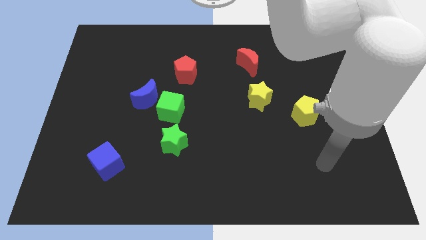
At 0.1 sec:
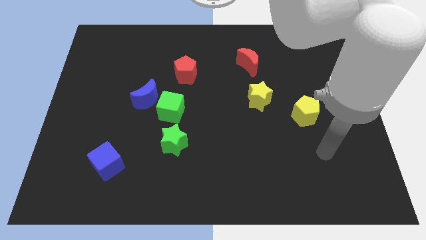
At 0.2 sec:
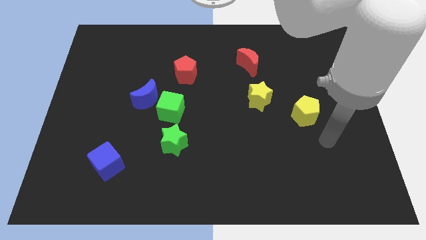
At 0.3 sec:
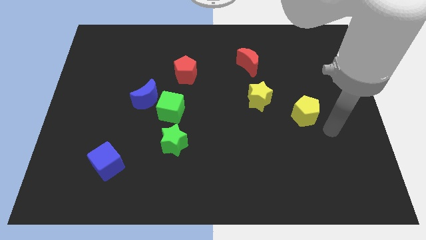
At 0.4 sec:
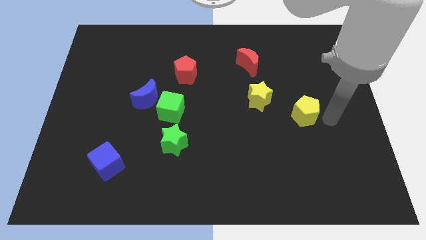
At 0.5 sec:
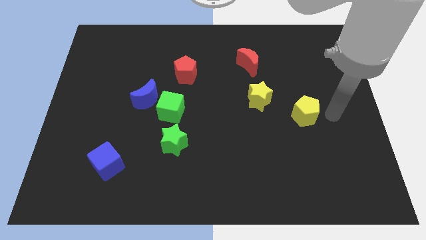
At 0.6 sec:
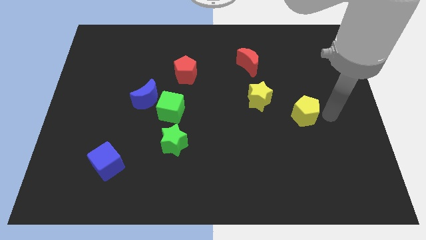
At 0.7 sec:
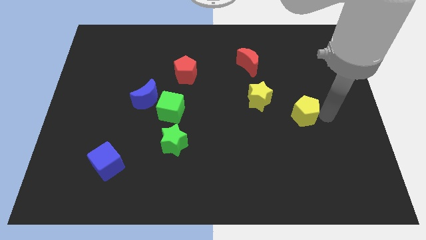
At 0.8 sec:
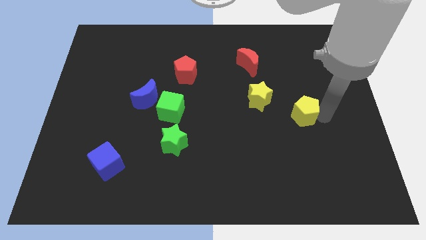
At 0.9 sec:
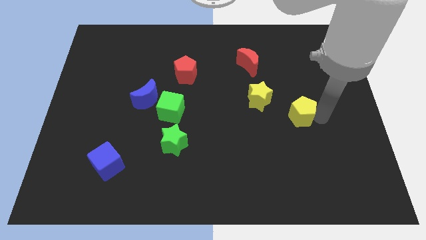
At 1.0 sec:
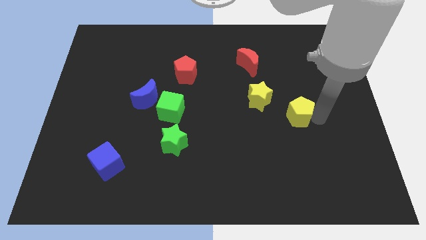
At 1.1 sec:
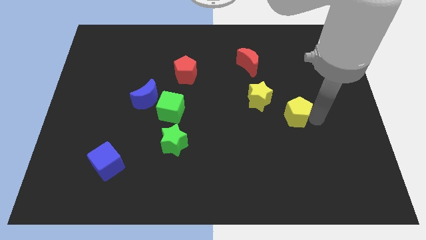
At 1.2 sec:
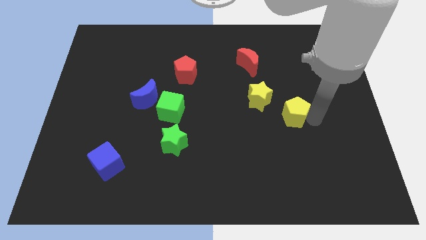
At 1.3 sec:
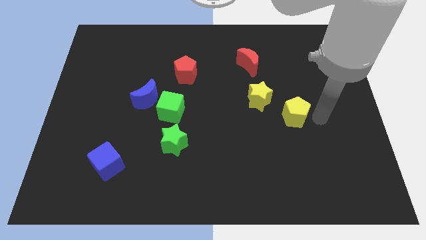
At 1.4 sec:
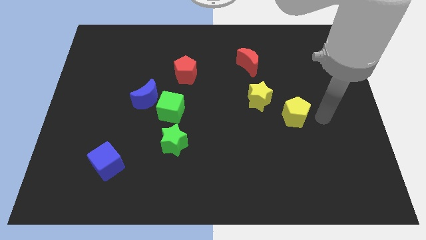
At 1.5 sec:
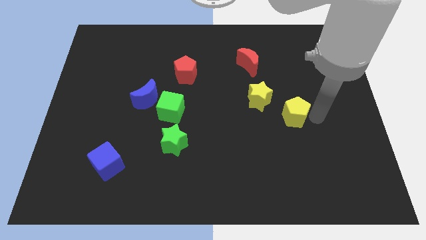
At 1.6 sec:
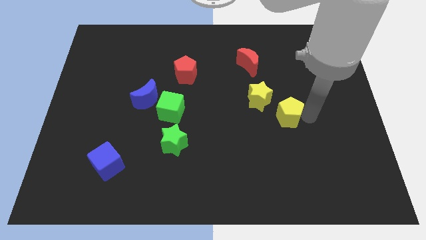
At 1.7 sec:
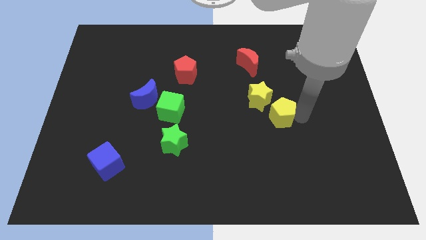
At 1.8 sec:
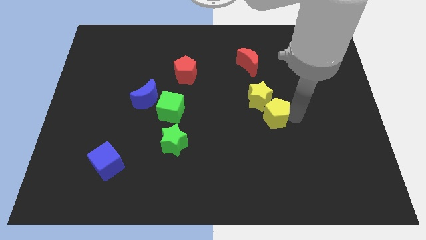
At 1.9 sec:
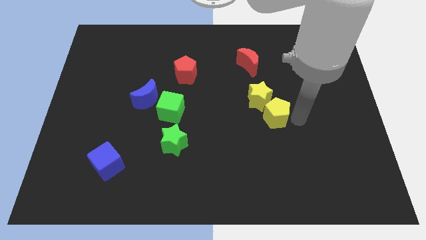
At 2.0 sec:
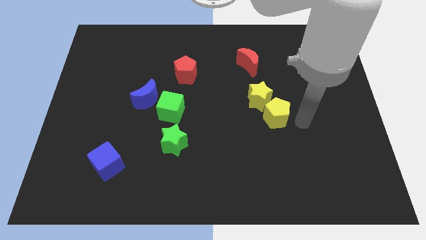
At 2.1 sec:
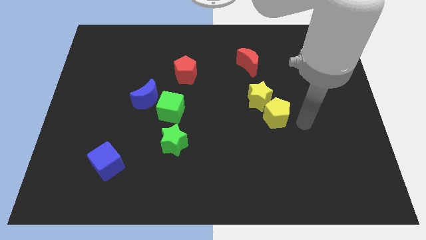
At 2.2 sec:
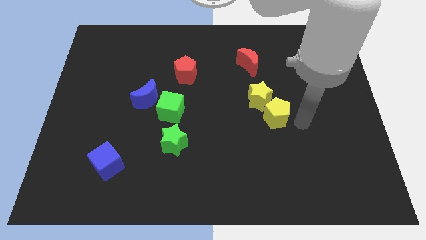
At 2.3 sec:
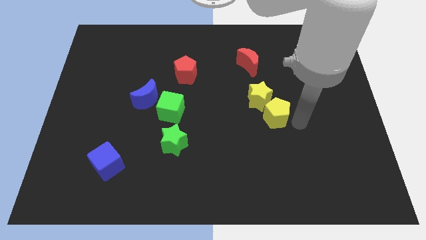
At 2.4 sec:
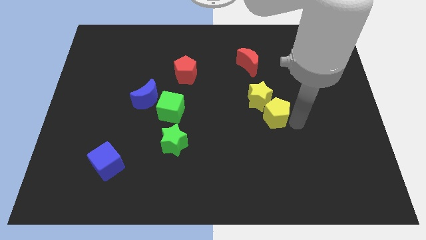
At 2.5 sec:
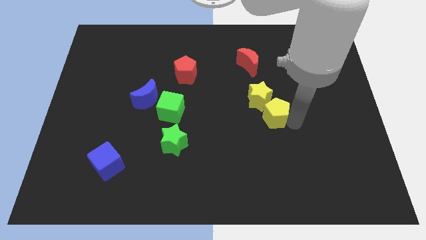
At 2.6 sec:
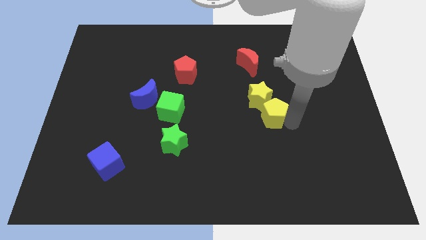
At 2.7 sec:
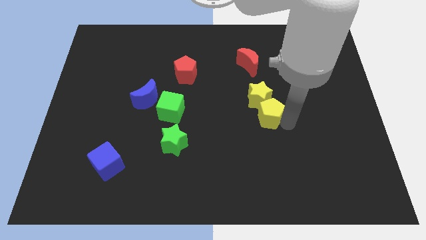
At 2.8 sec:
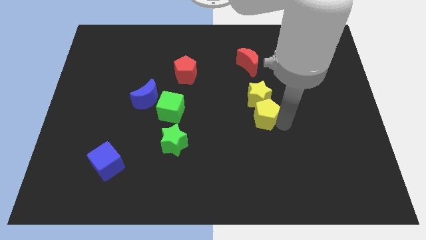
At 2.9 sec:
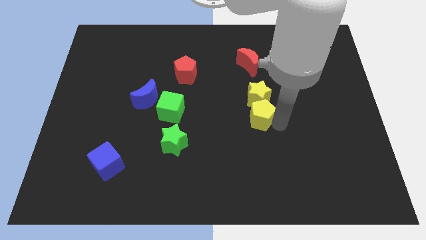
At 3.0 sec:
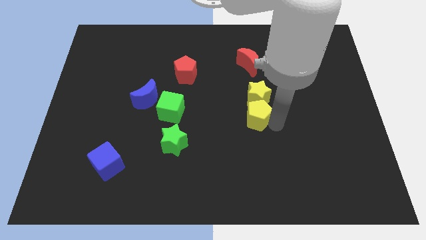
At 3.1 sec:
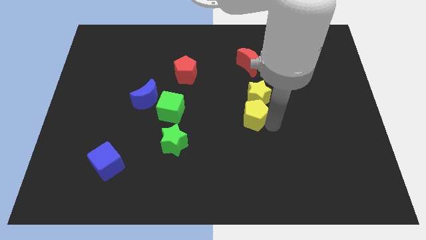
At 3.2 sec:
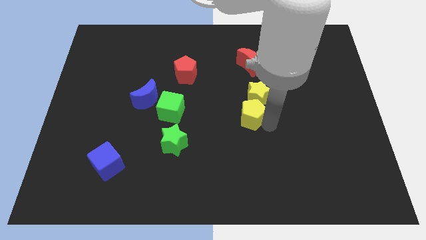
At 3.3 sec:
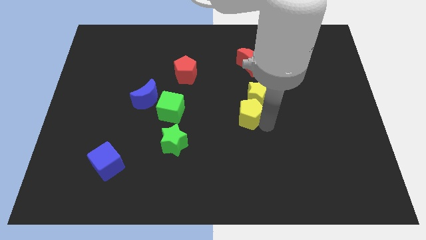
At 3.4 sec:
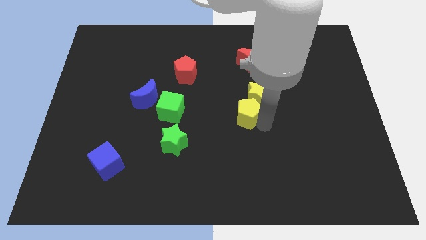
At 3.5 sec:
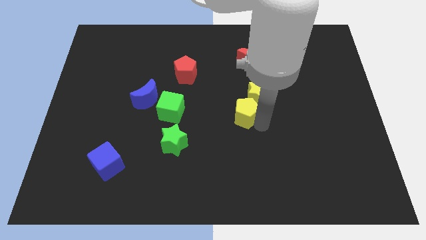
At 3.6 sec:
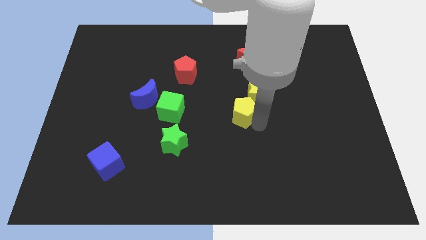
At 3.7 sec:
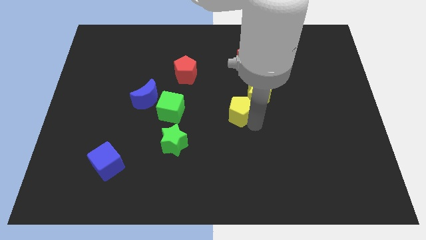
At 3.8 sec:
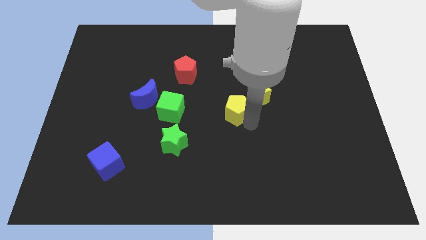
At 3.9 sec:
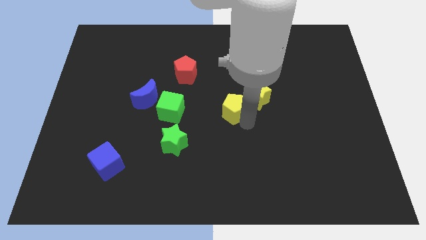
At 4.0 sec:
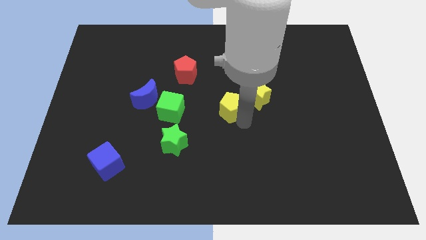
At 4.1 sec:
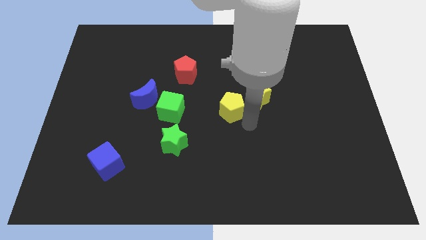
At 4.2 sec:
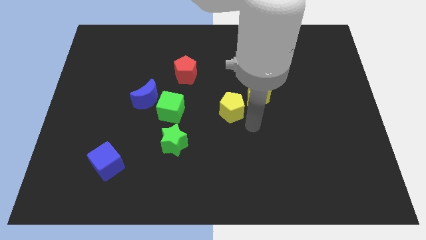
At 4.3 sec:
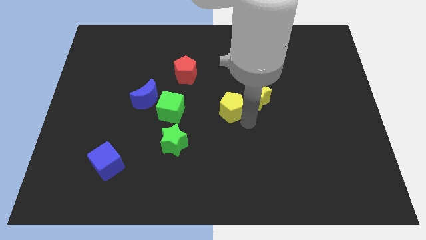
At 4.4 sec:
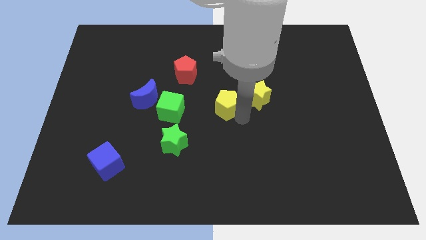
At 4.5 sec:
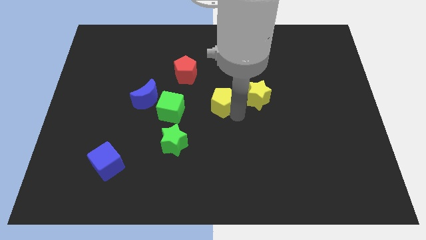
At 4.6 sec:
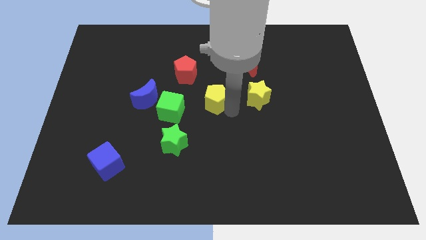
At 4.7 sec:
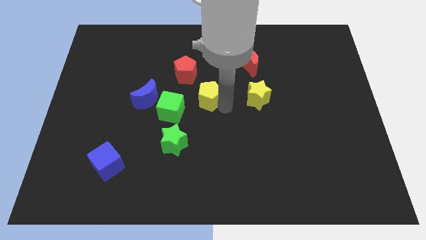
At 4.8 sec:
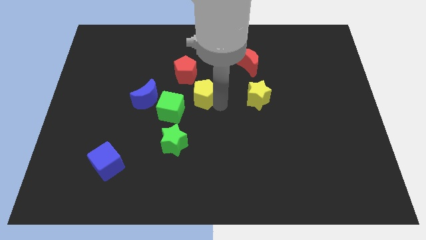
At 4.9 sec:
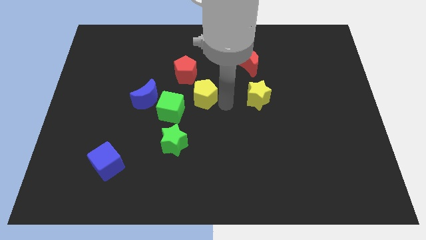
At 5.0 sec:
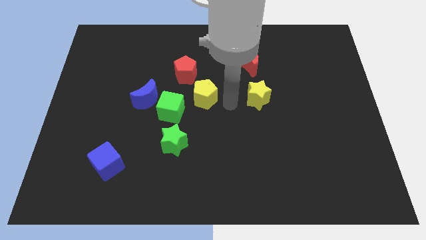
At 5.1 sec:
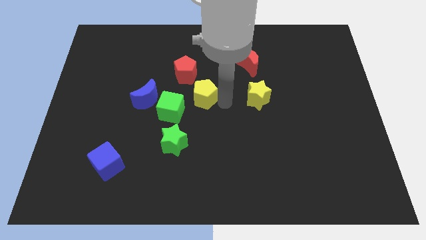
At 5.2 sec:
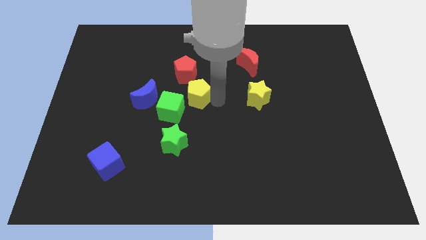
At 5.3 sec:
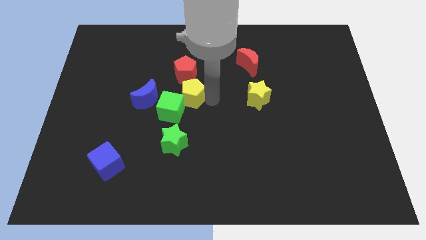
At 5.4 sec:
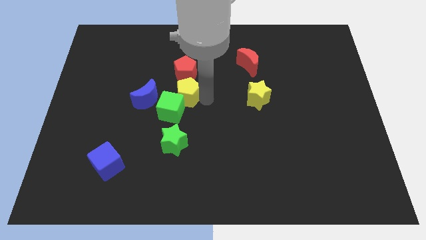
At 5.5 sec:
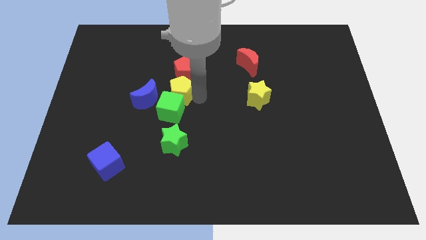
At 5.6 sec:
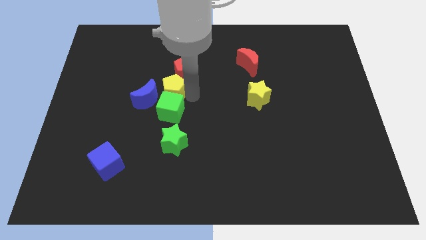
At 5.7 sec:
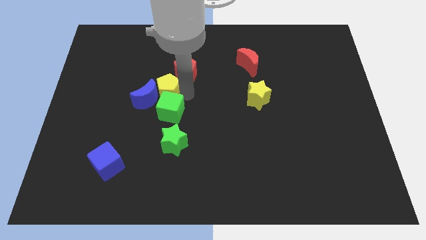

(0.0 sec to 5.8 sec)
move the yellow pentagon to the blue moon

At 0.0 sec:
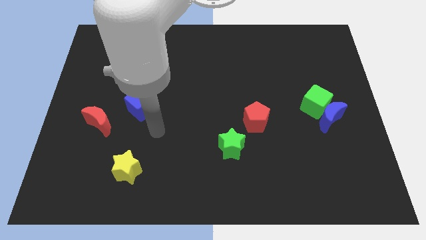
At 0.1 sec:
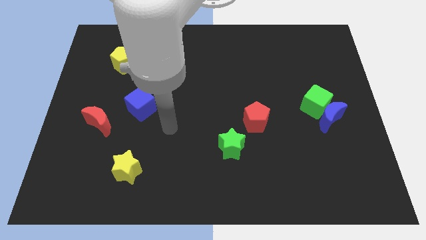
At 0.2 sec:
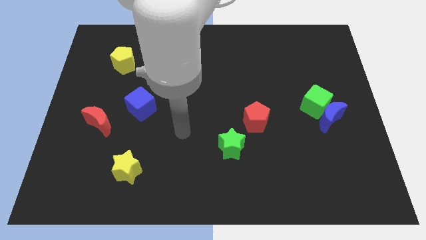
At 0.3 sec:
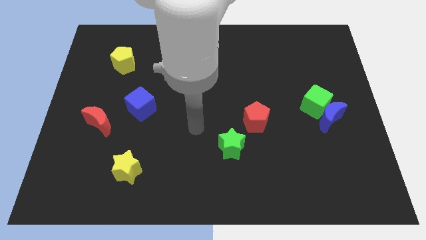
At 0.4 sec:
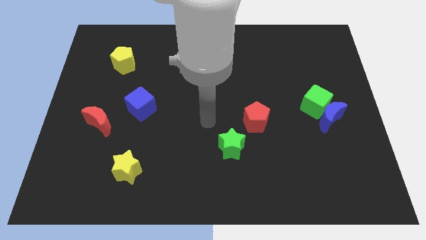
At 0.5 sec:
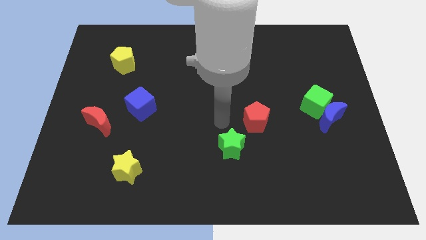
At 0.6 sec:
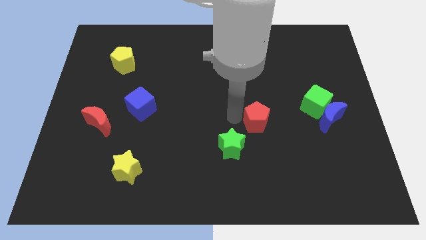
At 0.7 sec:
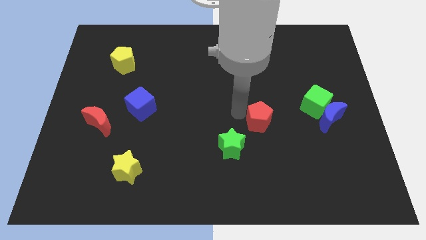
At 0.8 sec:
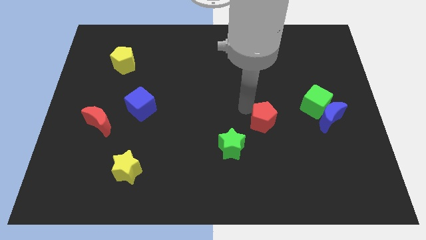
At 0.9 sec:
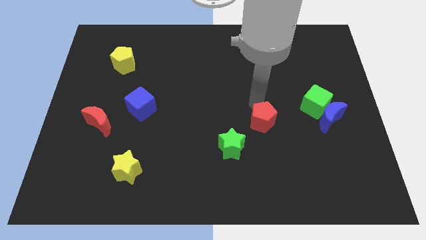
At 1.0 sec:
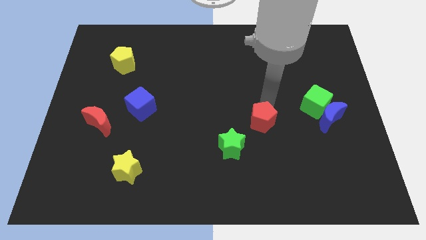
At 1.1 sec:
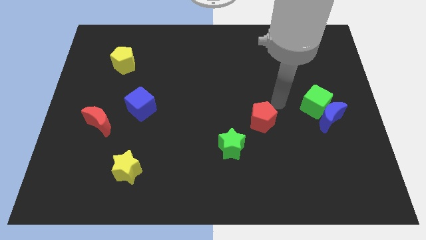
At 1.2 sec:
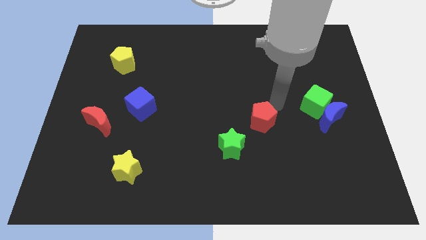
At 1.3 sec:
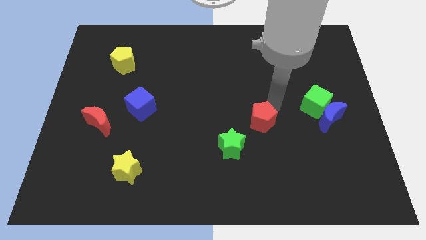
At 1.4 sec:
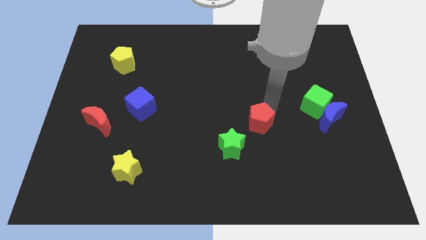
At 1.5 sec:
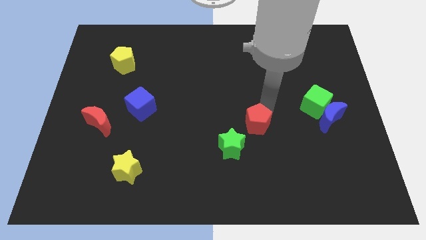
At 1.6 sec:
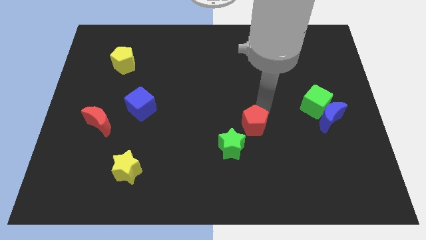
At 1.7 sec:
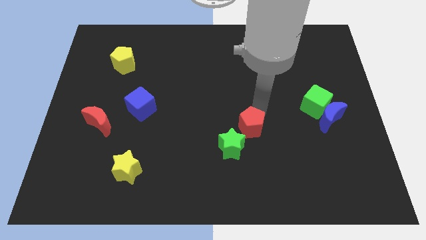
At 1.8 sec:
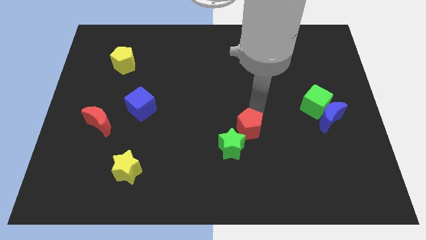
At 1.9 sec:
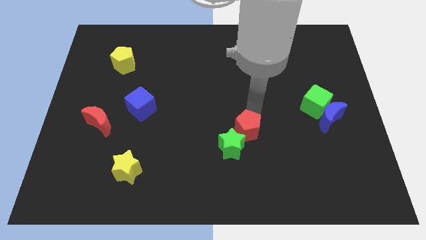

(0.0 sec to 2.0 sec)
put the red pentagon towards the green star
